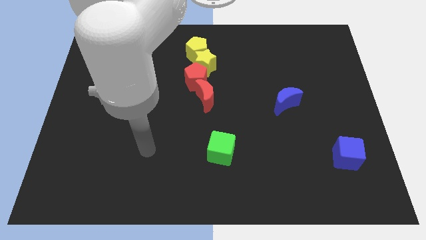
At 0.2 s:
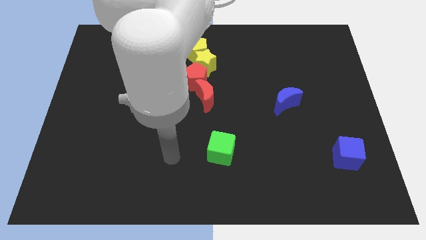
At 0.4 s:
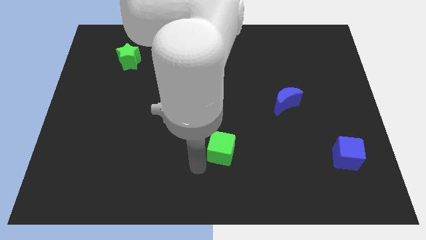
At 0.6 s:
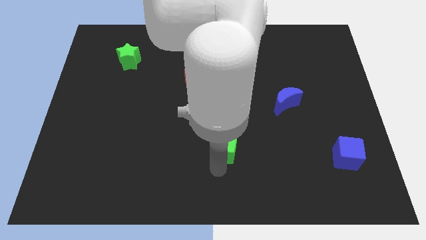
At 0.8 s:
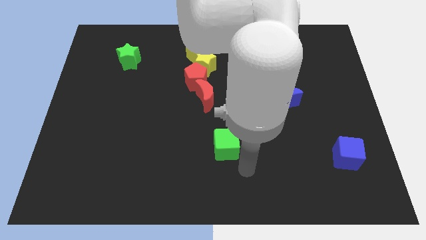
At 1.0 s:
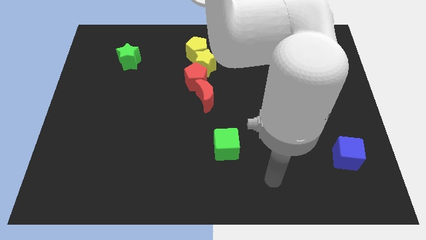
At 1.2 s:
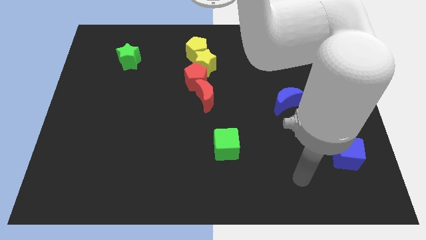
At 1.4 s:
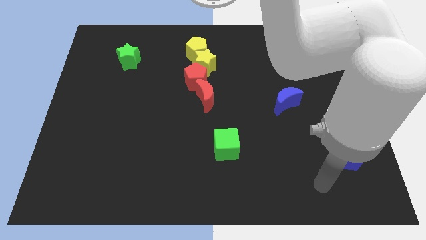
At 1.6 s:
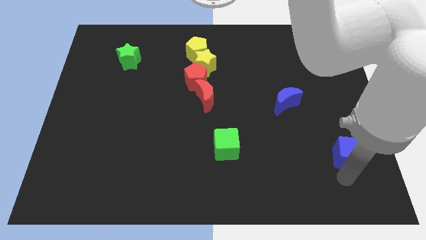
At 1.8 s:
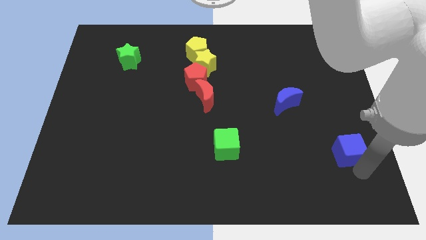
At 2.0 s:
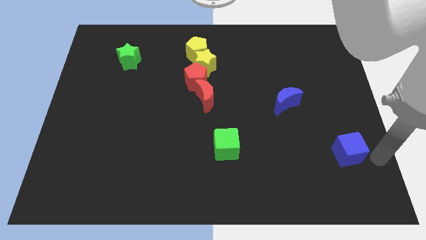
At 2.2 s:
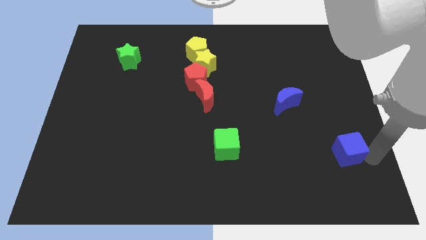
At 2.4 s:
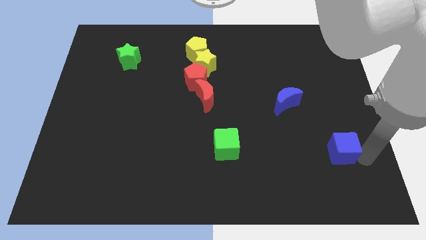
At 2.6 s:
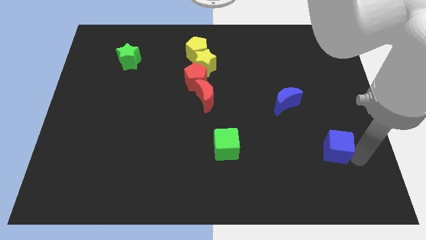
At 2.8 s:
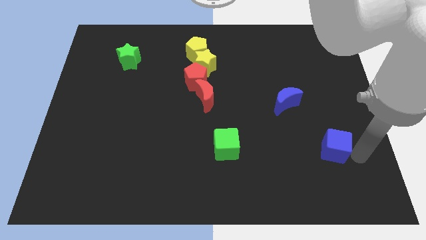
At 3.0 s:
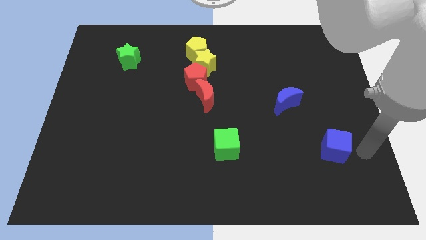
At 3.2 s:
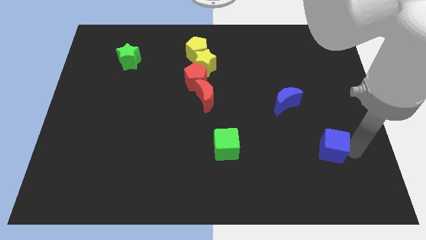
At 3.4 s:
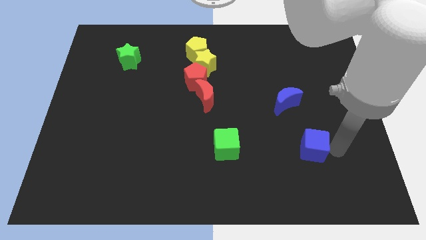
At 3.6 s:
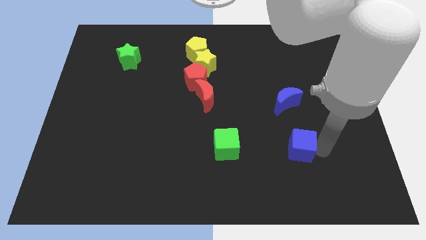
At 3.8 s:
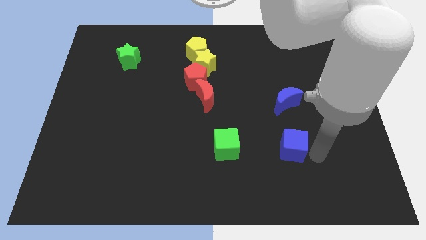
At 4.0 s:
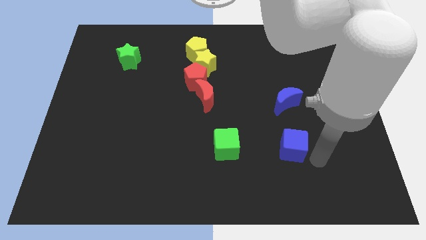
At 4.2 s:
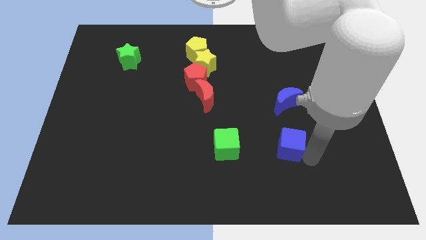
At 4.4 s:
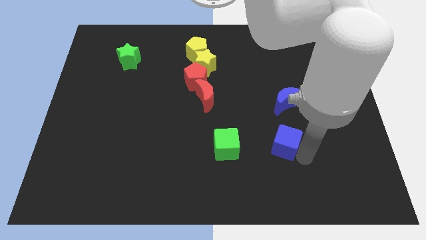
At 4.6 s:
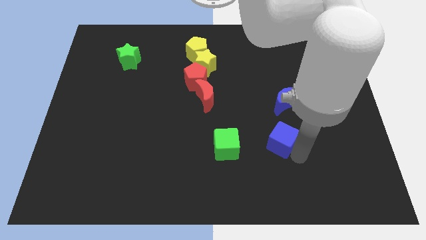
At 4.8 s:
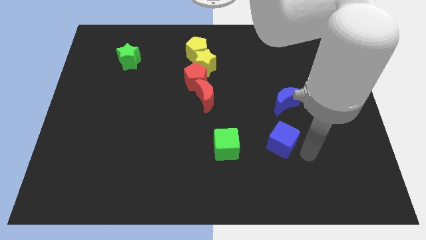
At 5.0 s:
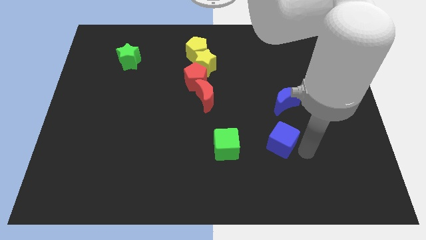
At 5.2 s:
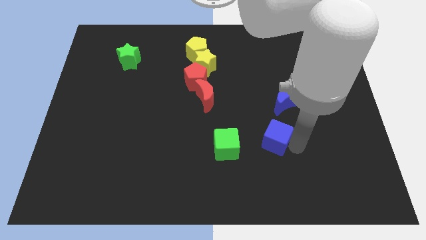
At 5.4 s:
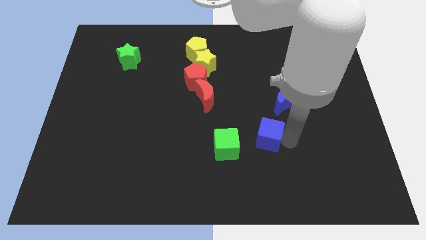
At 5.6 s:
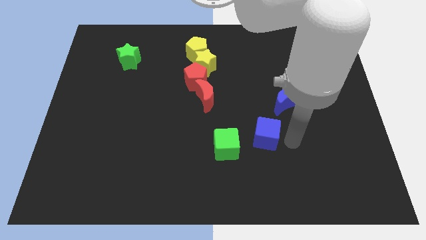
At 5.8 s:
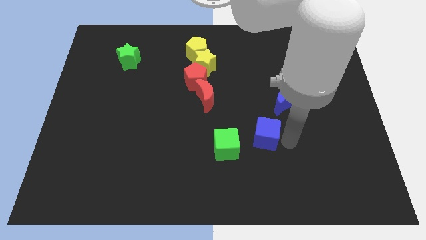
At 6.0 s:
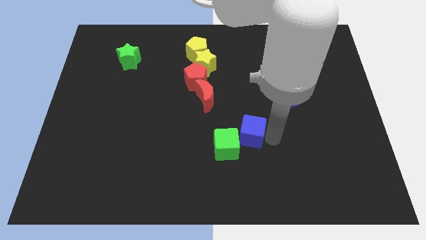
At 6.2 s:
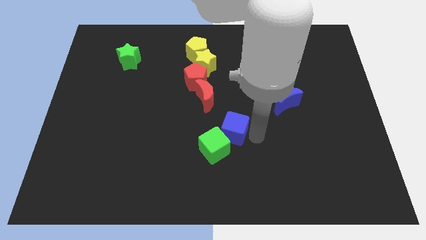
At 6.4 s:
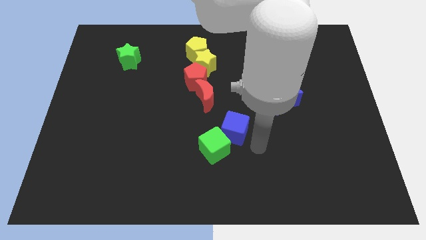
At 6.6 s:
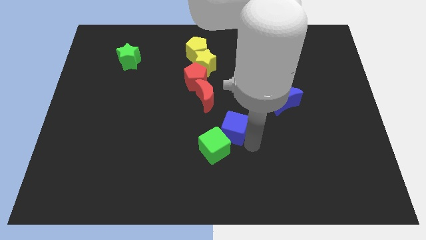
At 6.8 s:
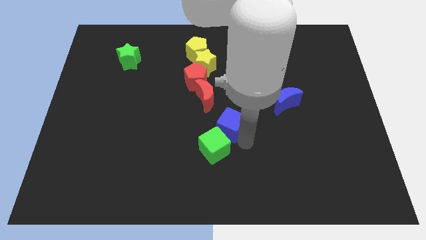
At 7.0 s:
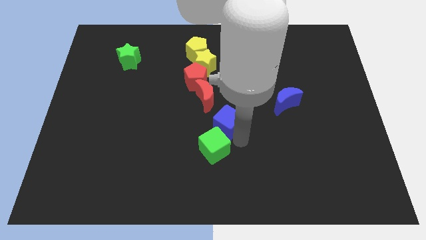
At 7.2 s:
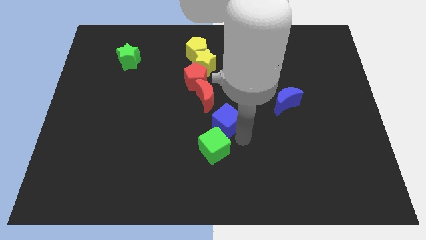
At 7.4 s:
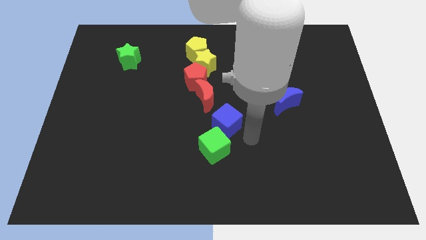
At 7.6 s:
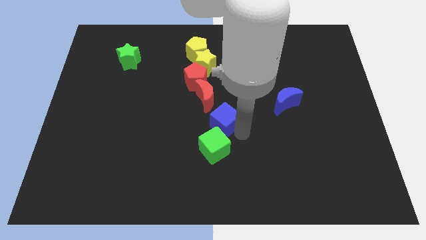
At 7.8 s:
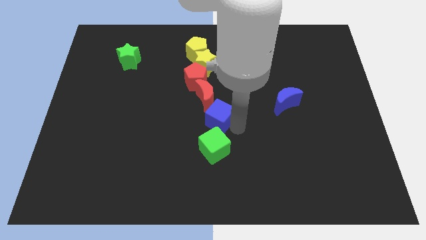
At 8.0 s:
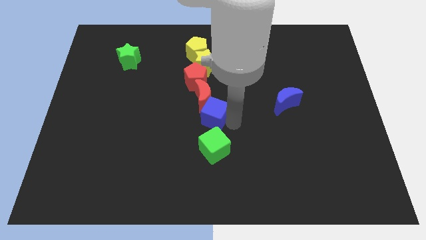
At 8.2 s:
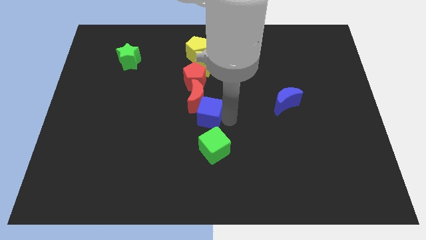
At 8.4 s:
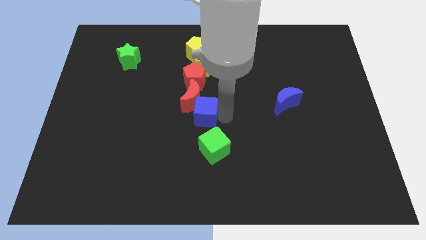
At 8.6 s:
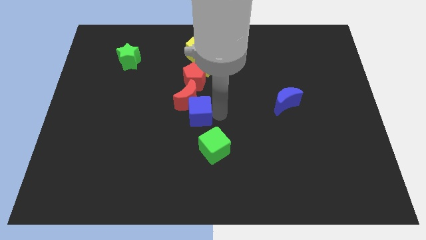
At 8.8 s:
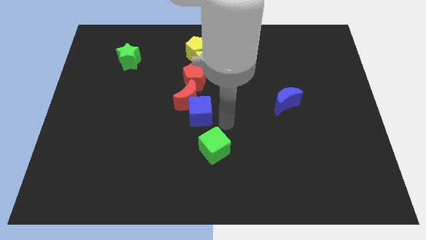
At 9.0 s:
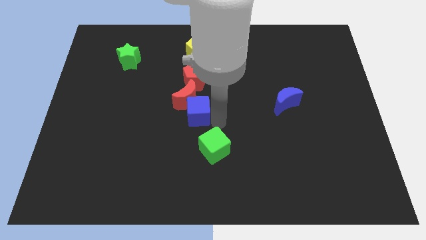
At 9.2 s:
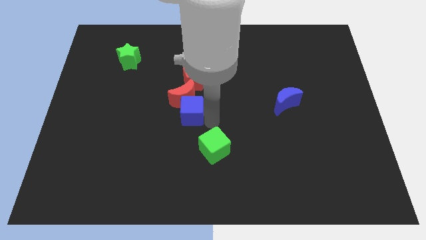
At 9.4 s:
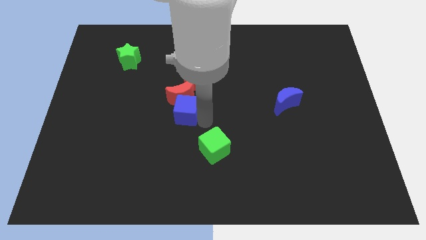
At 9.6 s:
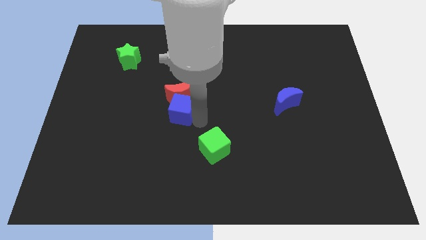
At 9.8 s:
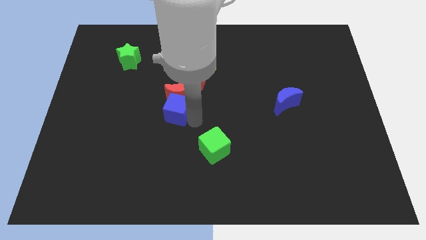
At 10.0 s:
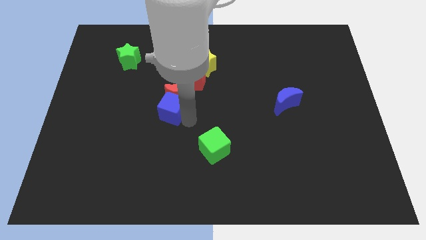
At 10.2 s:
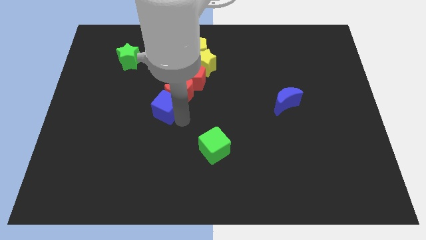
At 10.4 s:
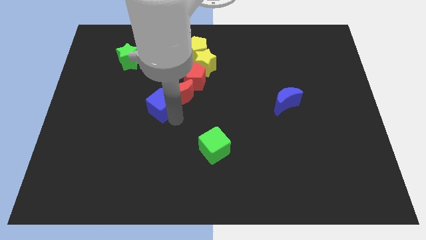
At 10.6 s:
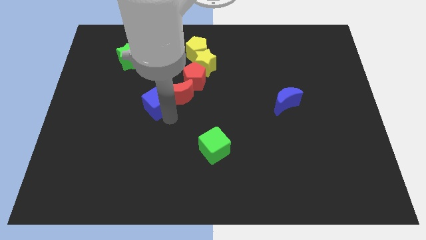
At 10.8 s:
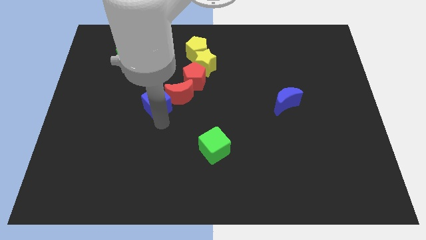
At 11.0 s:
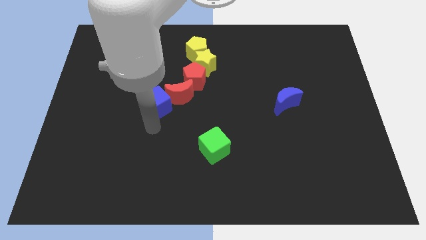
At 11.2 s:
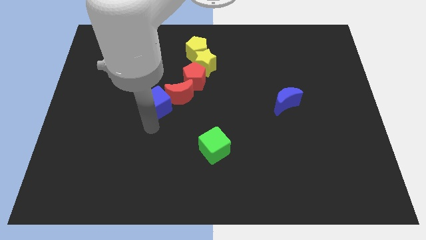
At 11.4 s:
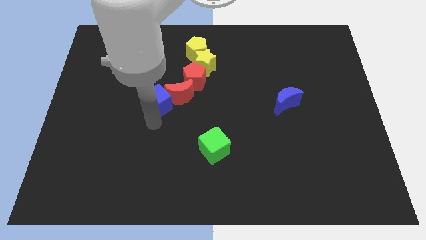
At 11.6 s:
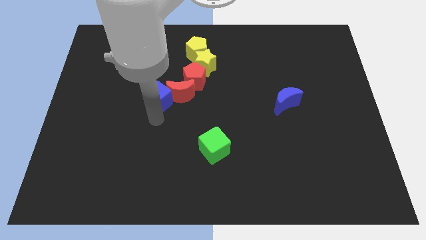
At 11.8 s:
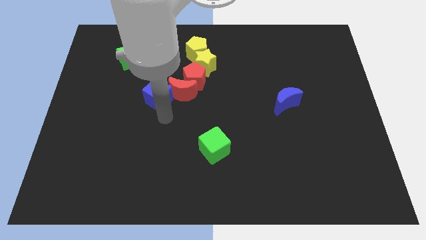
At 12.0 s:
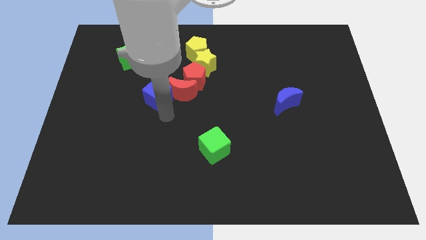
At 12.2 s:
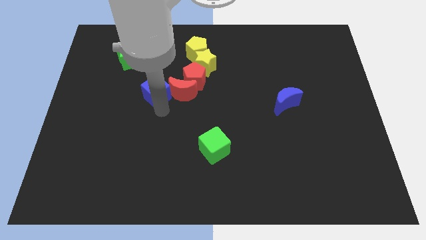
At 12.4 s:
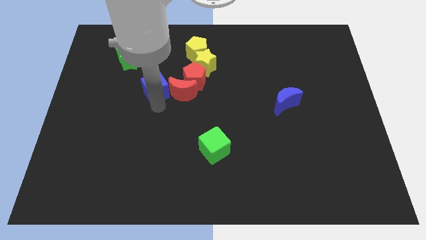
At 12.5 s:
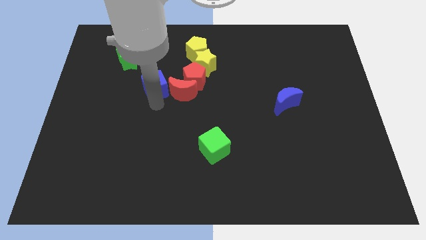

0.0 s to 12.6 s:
move the blue cube to the bottom right of the green star
